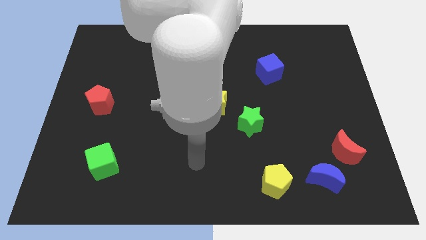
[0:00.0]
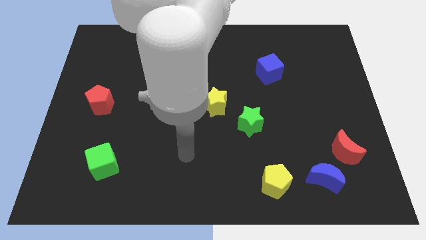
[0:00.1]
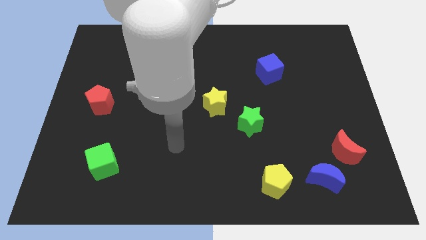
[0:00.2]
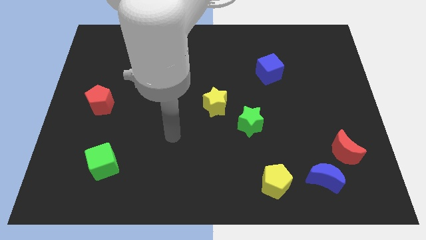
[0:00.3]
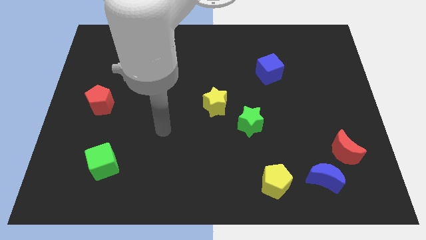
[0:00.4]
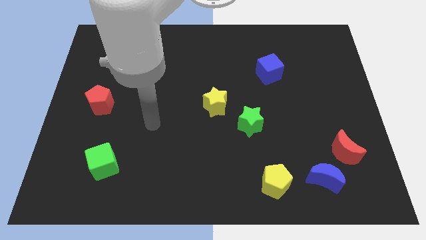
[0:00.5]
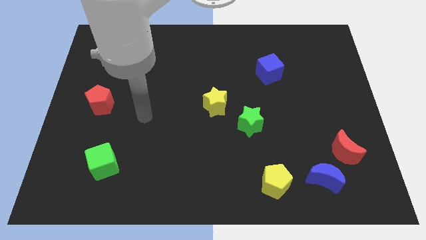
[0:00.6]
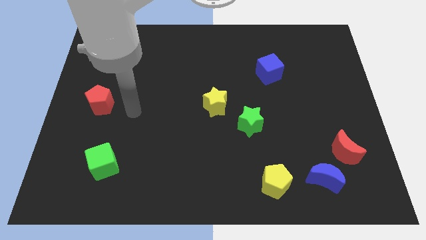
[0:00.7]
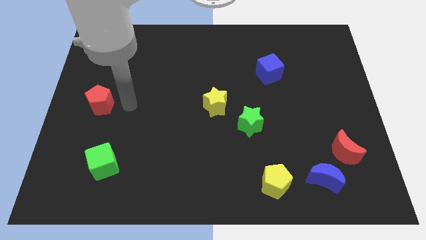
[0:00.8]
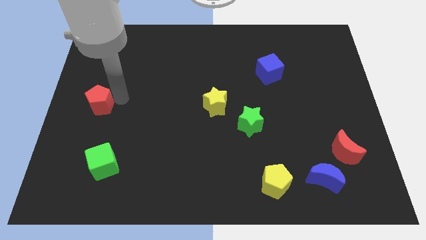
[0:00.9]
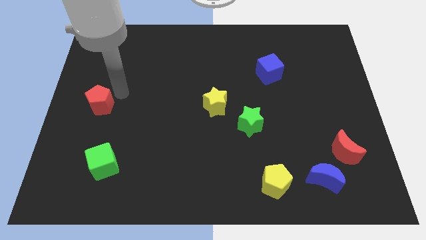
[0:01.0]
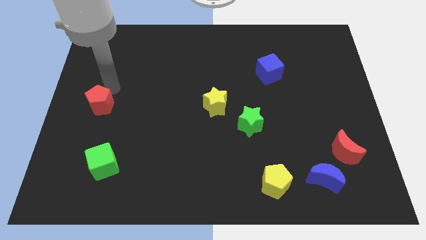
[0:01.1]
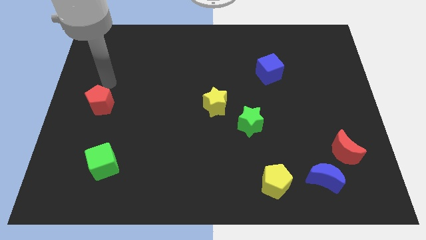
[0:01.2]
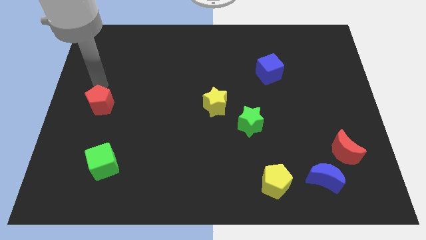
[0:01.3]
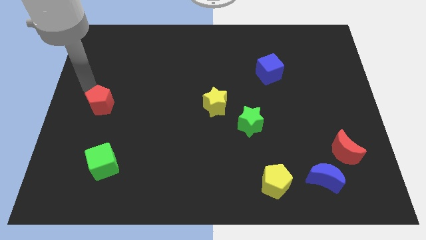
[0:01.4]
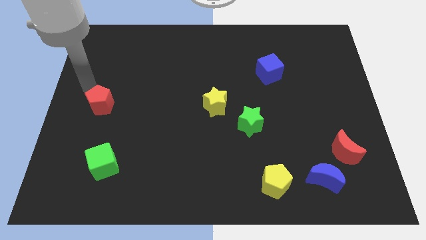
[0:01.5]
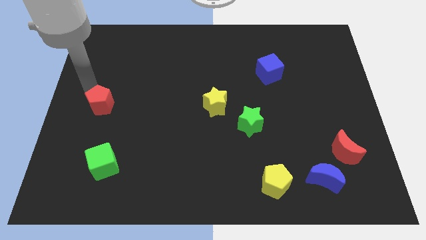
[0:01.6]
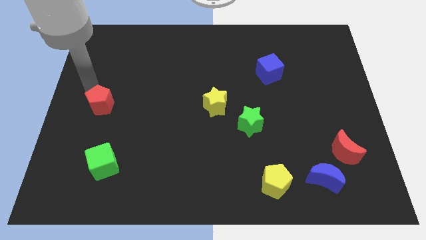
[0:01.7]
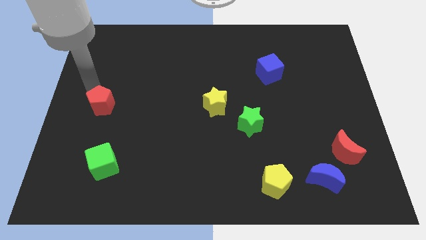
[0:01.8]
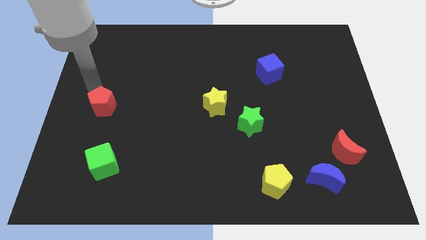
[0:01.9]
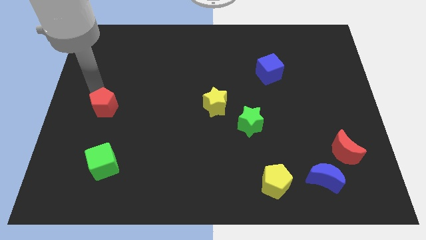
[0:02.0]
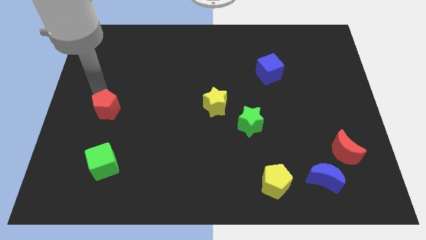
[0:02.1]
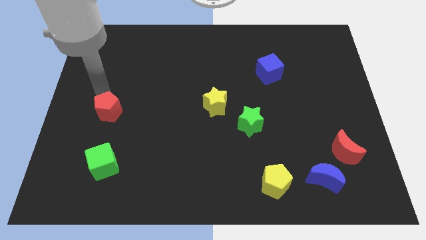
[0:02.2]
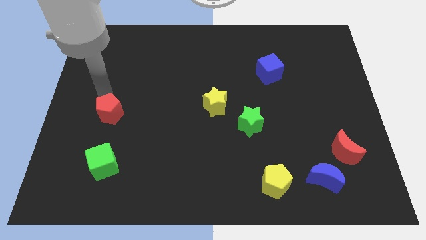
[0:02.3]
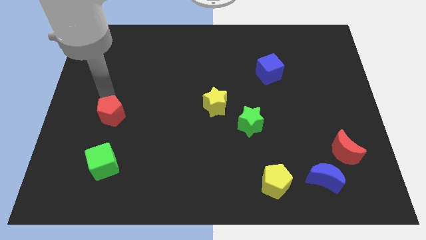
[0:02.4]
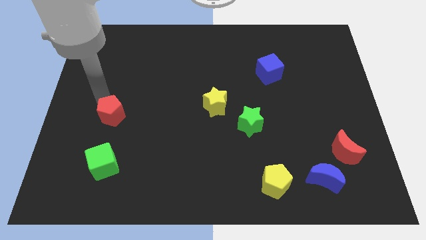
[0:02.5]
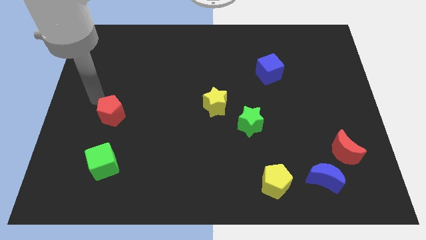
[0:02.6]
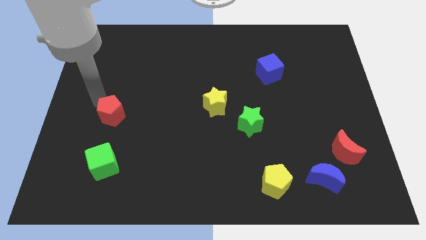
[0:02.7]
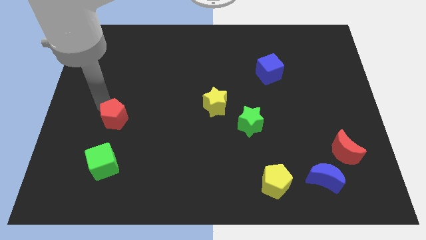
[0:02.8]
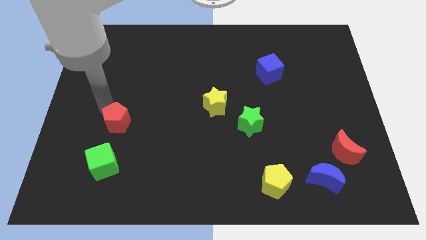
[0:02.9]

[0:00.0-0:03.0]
move the red pentagon slightly down and right diagonally

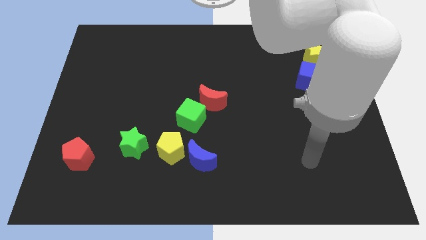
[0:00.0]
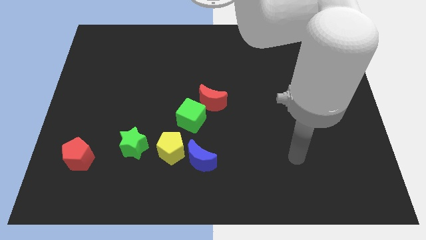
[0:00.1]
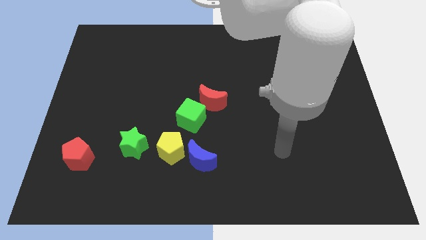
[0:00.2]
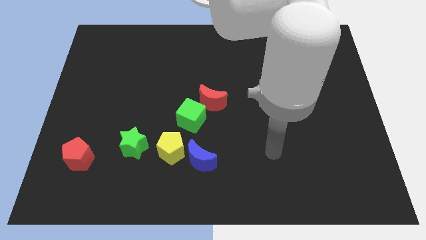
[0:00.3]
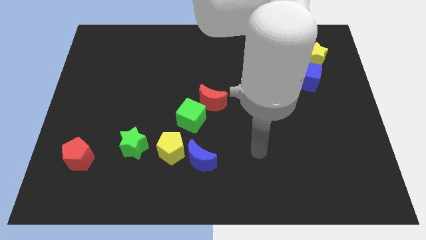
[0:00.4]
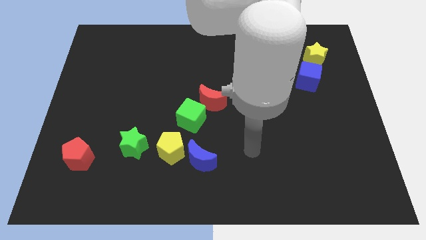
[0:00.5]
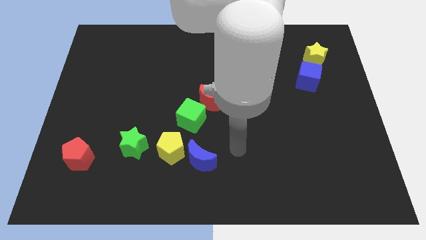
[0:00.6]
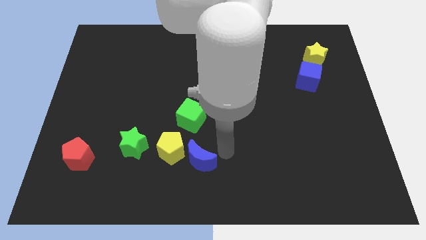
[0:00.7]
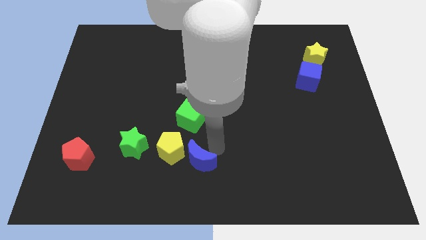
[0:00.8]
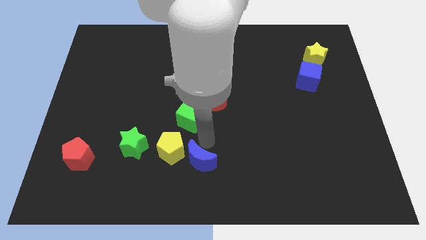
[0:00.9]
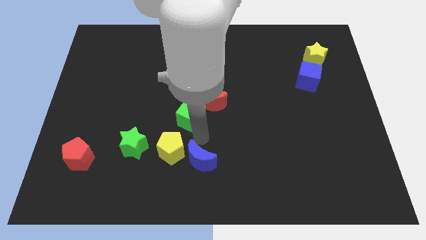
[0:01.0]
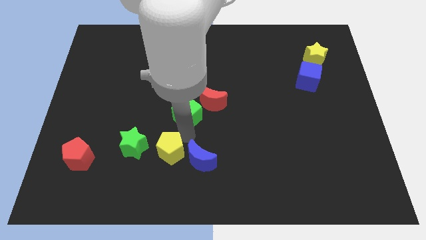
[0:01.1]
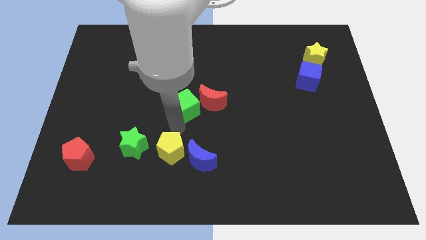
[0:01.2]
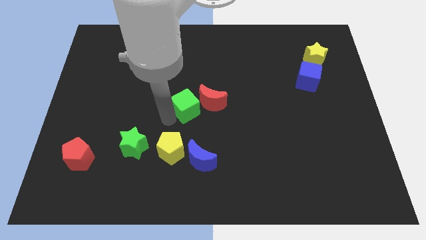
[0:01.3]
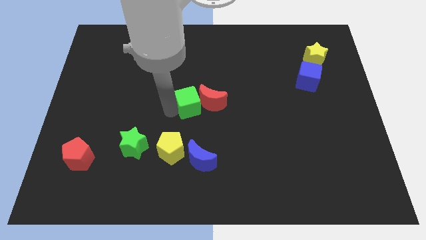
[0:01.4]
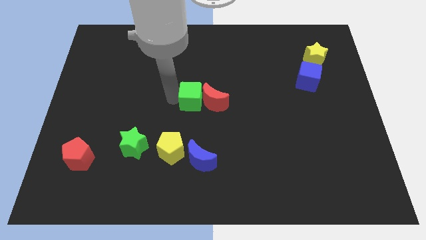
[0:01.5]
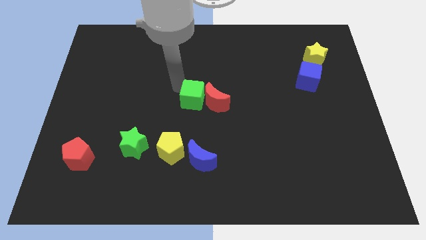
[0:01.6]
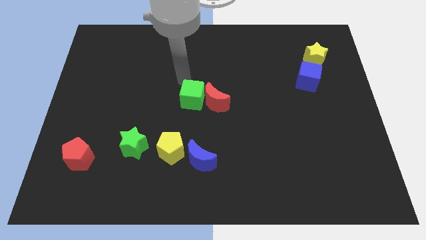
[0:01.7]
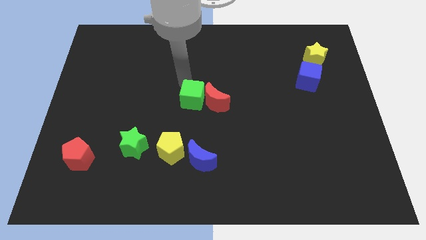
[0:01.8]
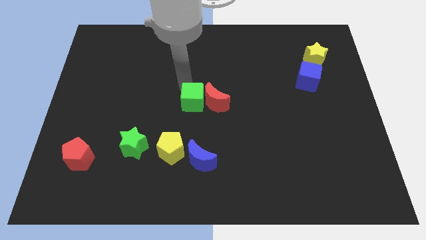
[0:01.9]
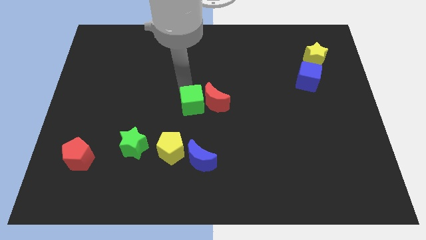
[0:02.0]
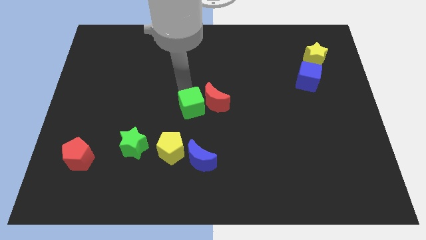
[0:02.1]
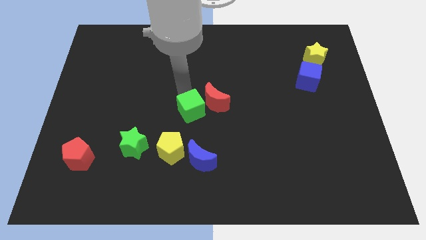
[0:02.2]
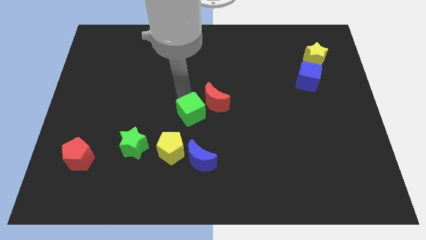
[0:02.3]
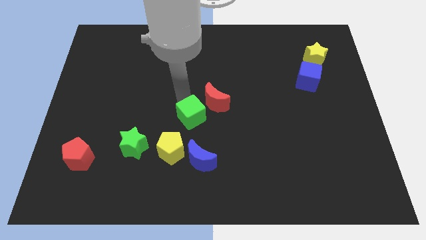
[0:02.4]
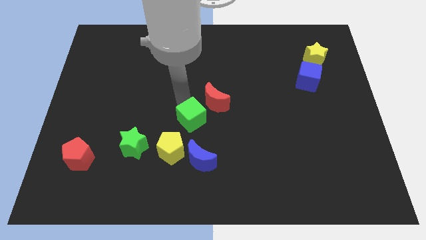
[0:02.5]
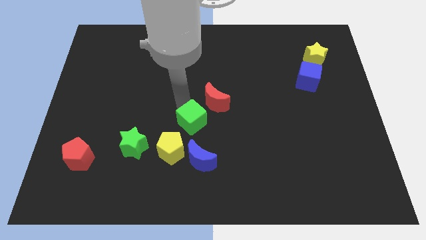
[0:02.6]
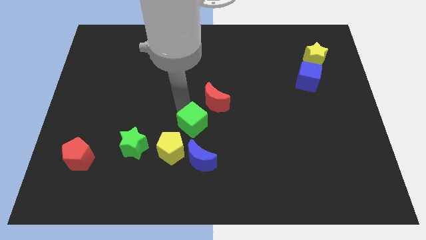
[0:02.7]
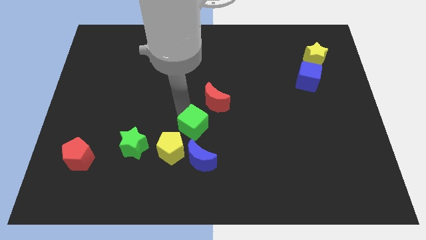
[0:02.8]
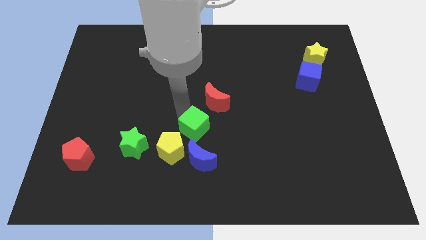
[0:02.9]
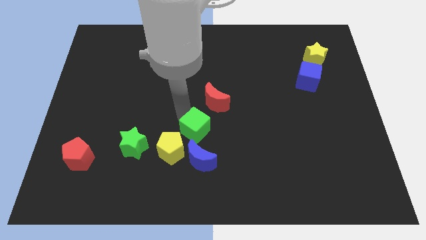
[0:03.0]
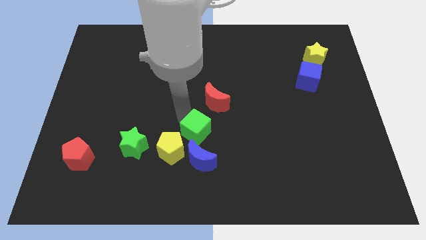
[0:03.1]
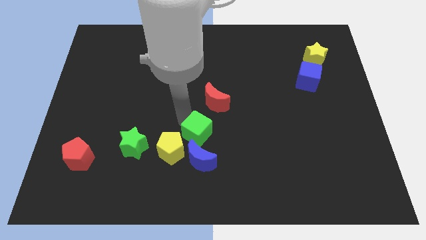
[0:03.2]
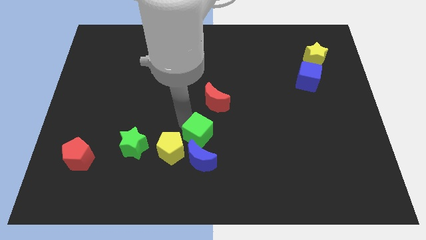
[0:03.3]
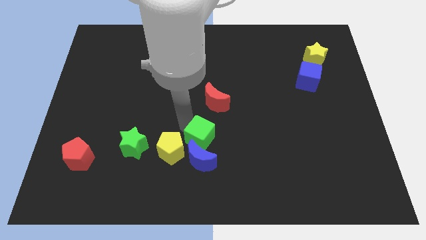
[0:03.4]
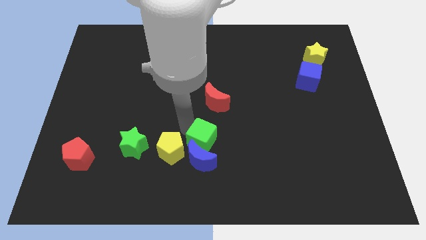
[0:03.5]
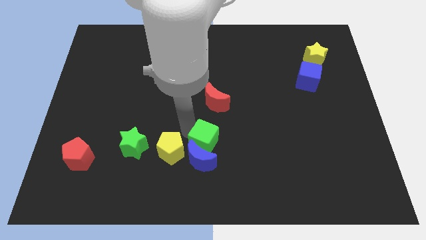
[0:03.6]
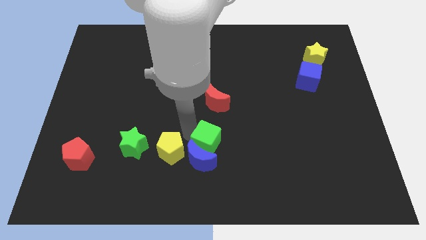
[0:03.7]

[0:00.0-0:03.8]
slightly push the green cube down and right diagonally

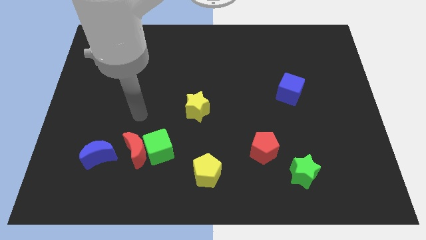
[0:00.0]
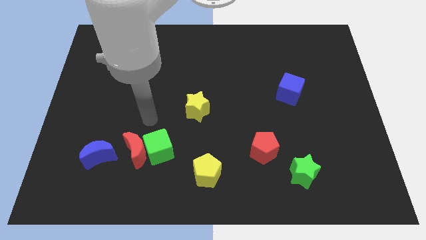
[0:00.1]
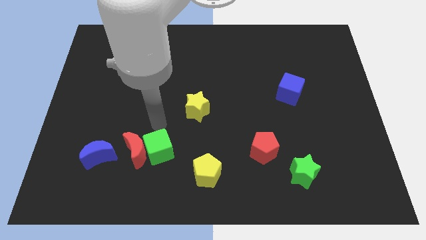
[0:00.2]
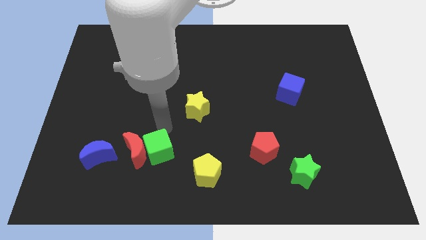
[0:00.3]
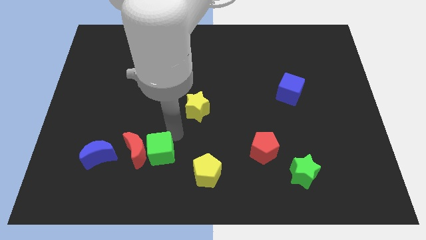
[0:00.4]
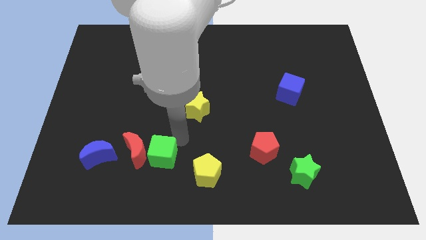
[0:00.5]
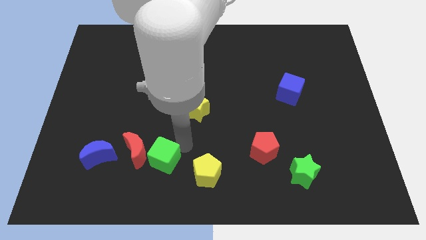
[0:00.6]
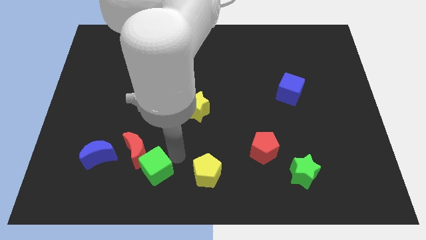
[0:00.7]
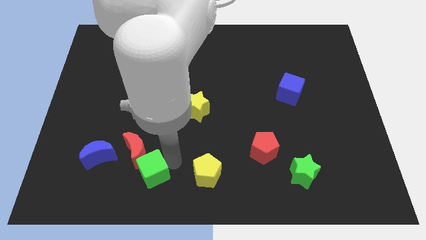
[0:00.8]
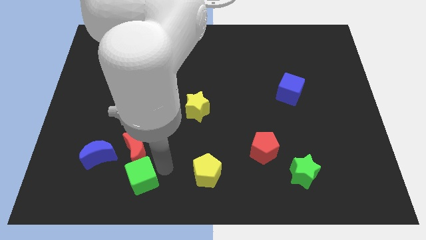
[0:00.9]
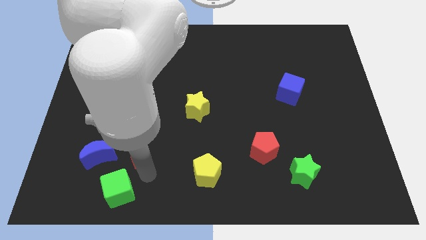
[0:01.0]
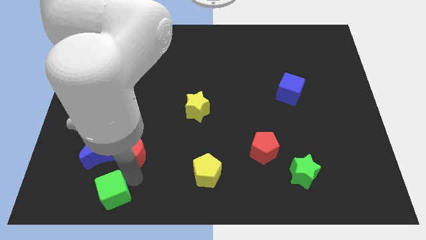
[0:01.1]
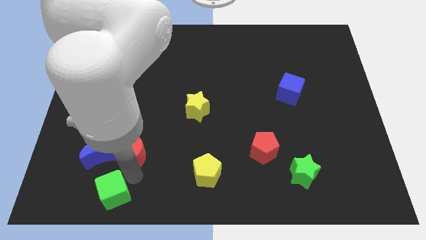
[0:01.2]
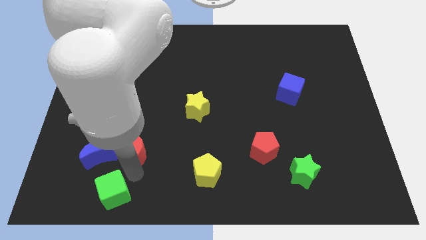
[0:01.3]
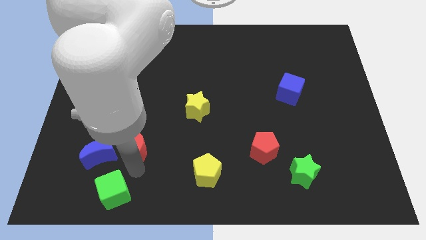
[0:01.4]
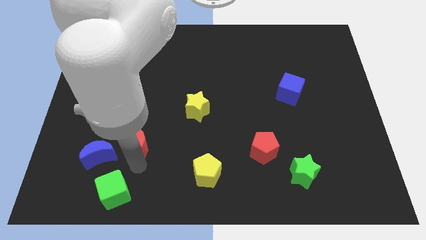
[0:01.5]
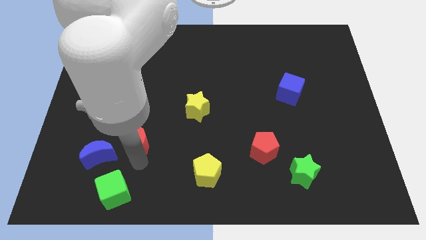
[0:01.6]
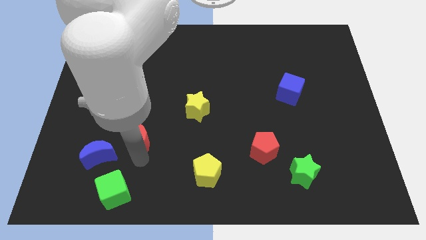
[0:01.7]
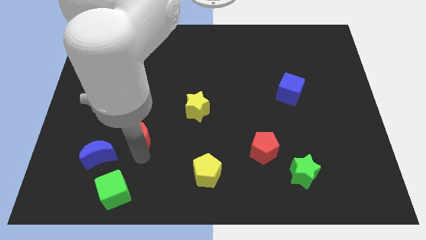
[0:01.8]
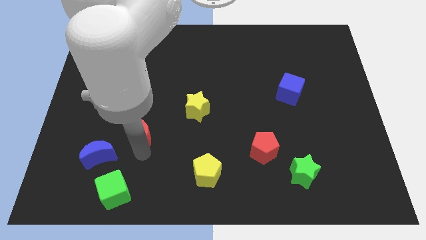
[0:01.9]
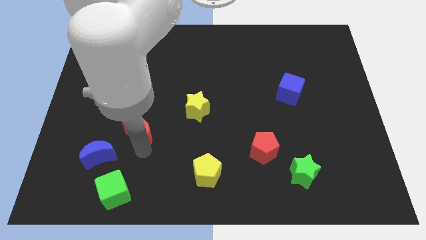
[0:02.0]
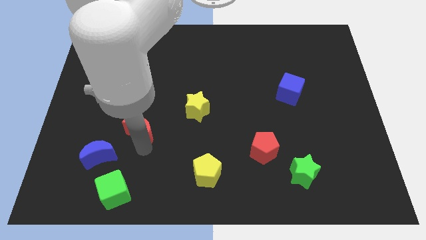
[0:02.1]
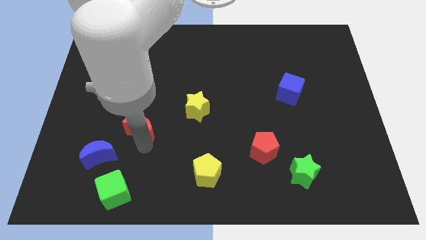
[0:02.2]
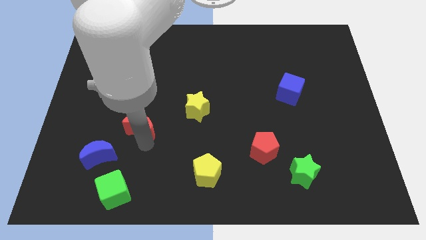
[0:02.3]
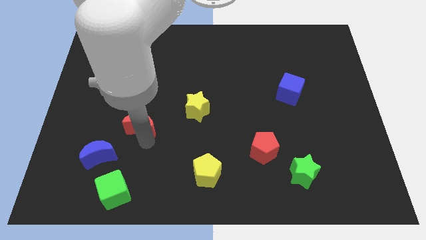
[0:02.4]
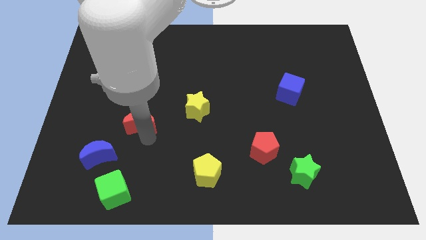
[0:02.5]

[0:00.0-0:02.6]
move the red moon a little upwards
